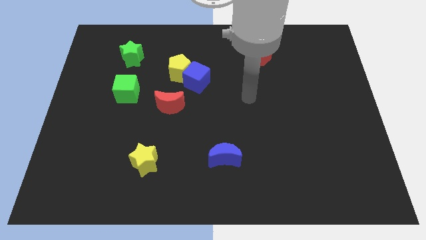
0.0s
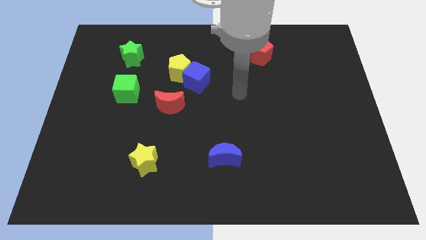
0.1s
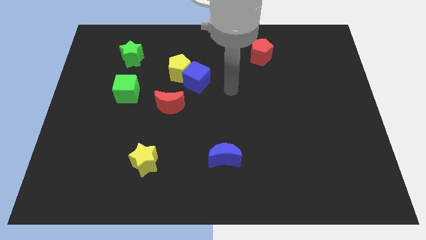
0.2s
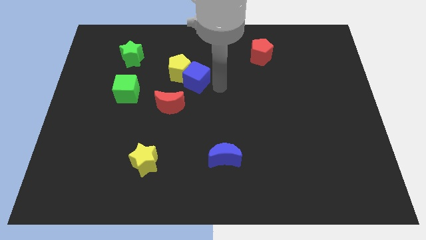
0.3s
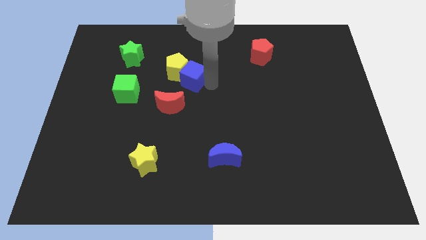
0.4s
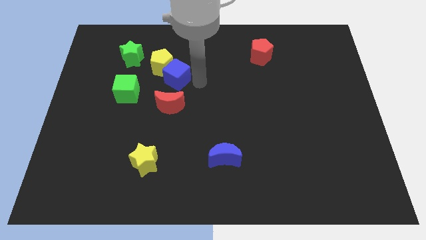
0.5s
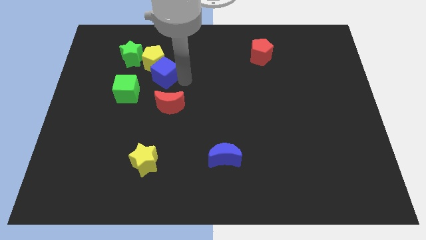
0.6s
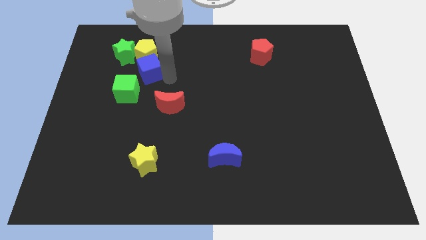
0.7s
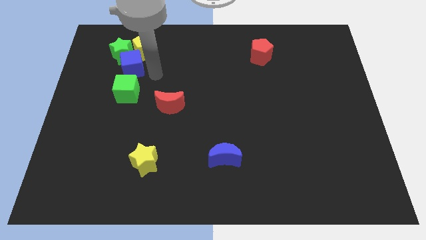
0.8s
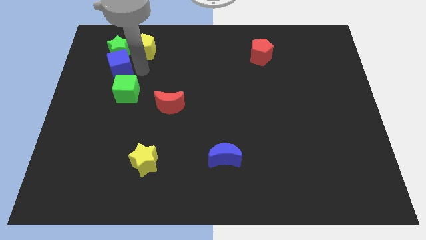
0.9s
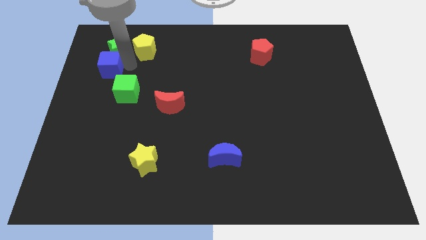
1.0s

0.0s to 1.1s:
separate the yellow pentagon from the blue cube

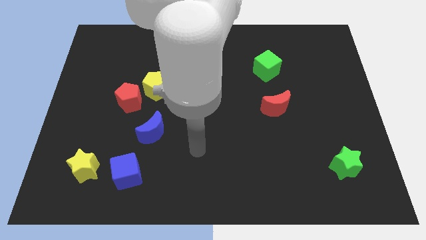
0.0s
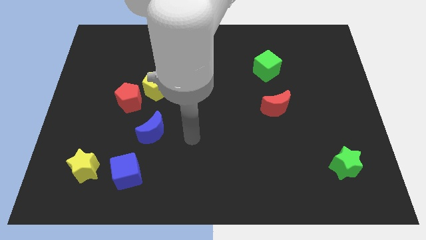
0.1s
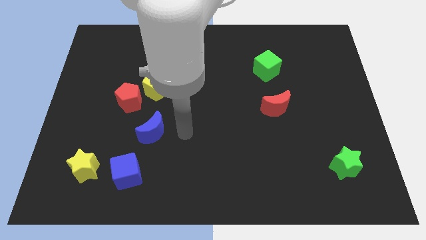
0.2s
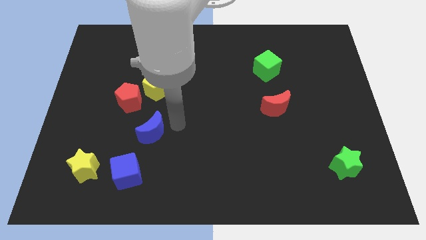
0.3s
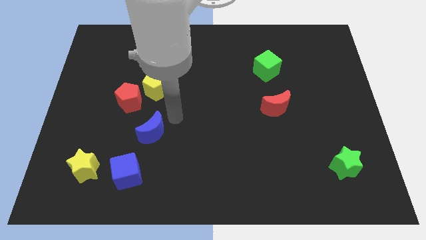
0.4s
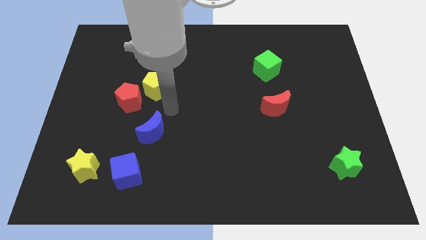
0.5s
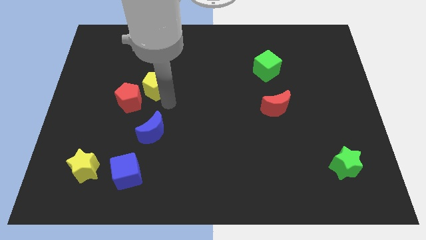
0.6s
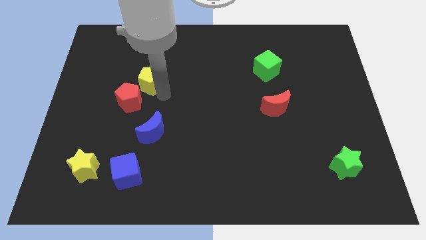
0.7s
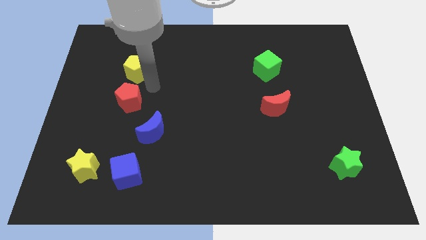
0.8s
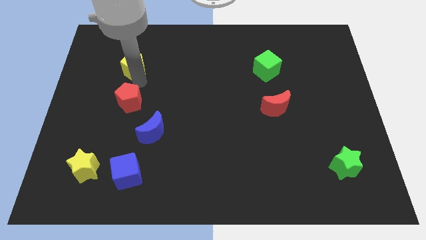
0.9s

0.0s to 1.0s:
move the red pentagon away from the yellow pentagon

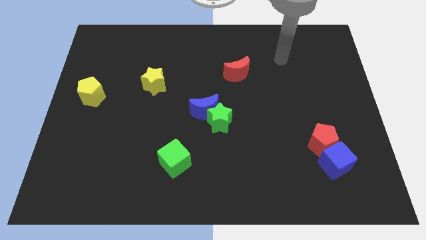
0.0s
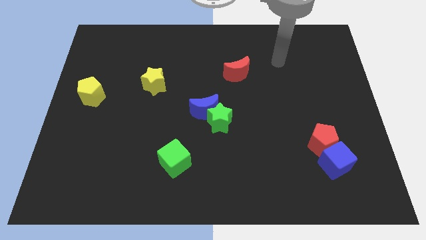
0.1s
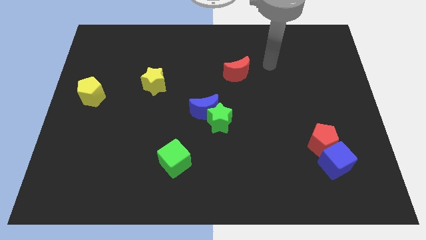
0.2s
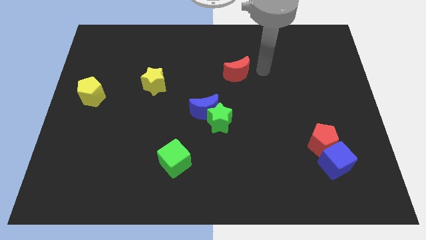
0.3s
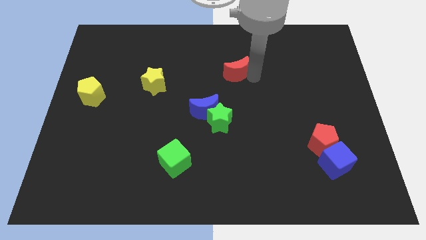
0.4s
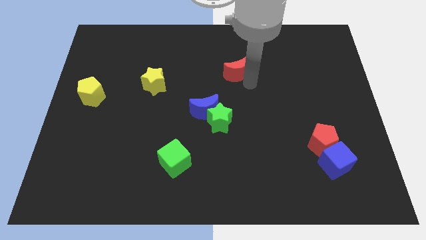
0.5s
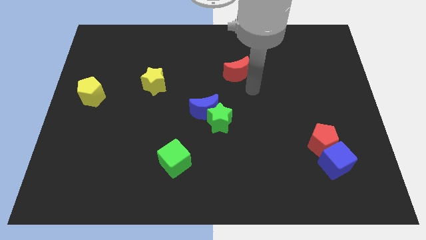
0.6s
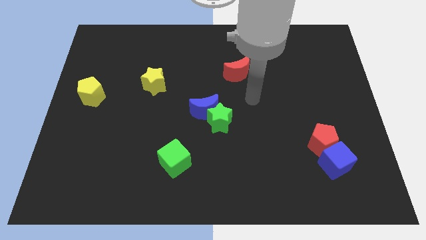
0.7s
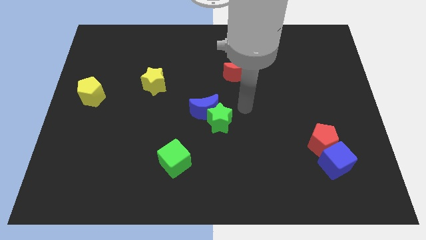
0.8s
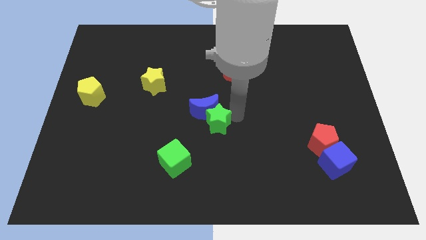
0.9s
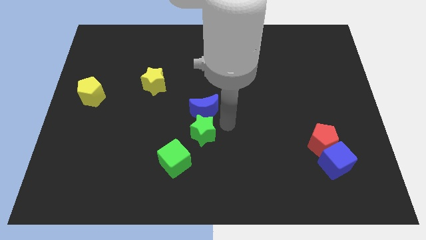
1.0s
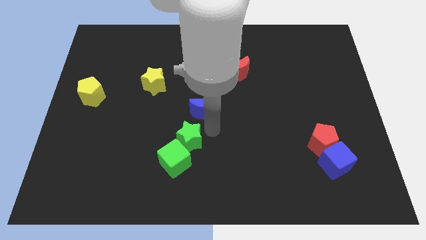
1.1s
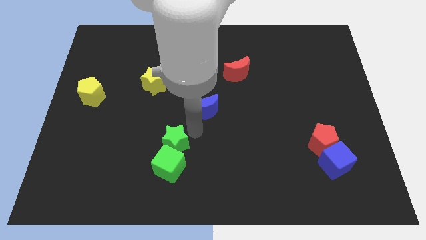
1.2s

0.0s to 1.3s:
pull the blue moon apart from the green star

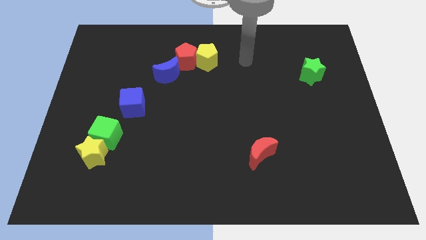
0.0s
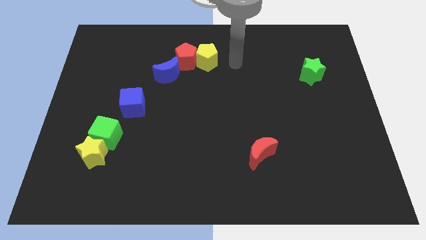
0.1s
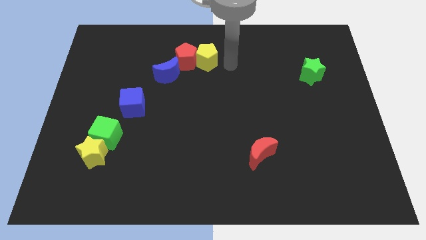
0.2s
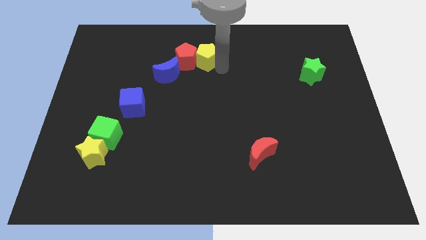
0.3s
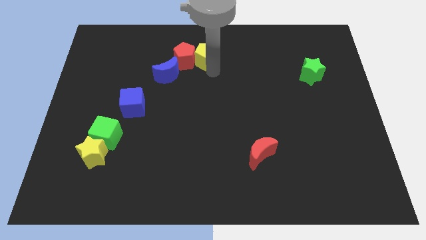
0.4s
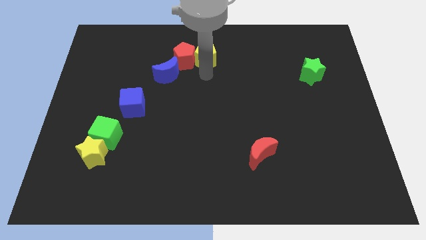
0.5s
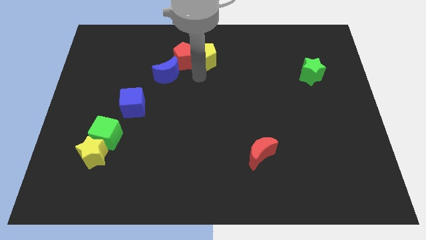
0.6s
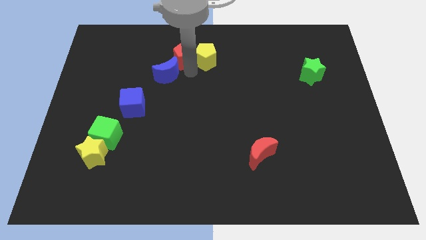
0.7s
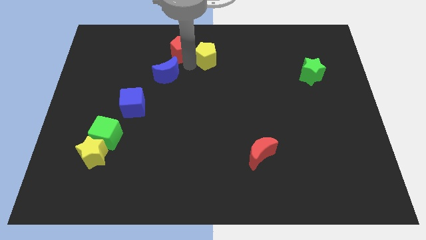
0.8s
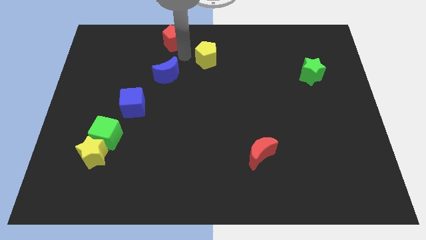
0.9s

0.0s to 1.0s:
move the yellow pentagon away from the red pentagon

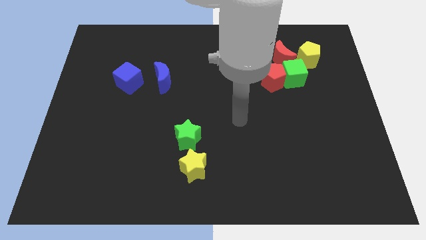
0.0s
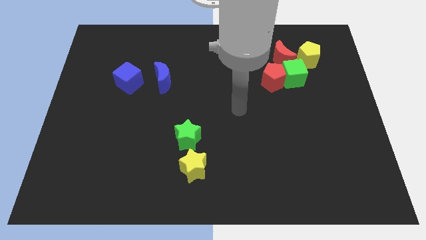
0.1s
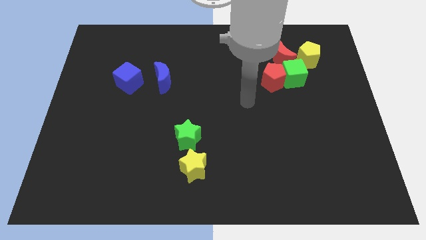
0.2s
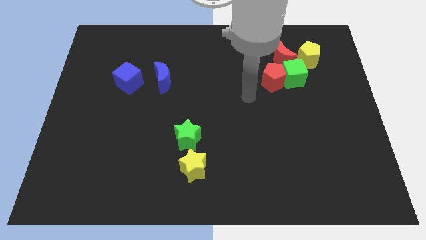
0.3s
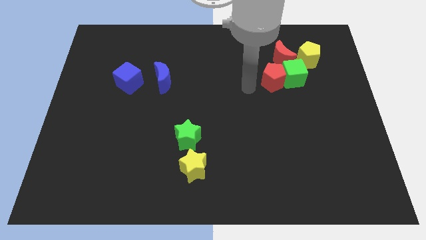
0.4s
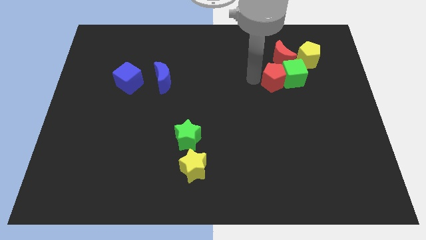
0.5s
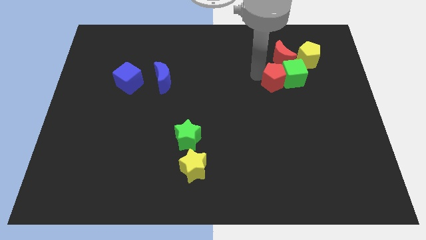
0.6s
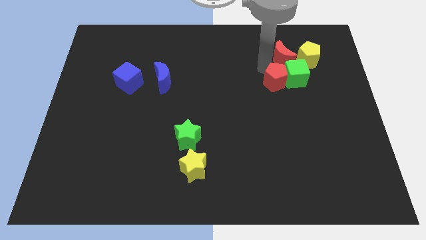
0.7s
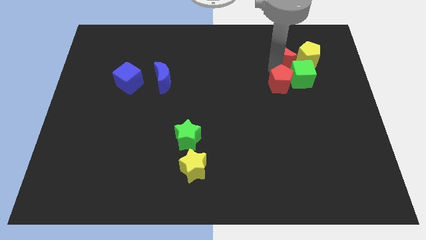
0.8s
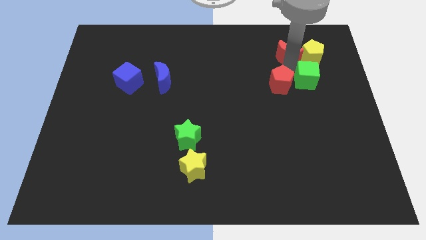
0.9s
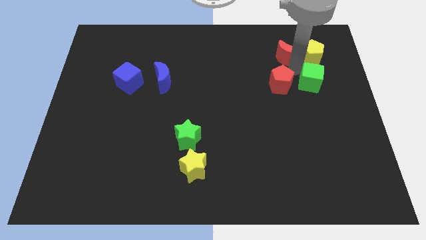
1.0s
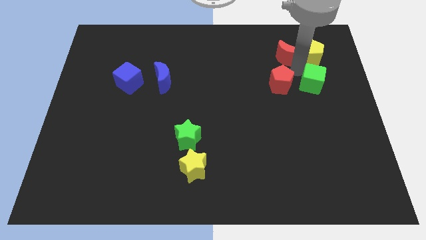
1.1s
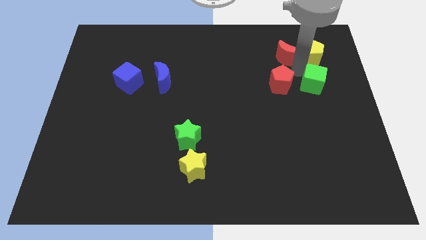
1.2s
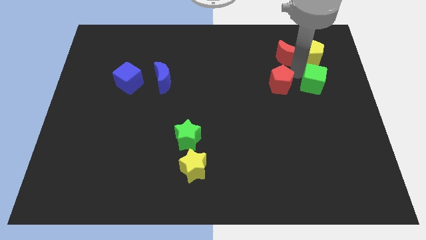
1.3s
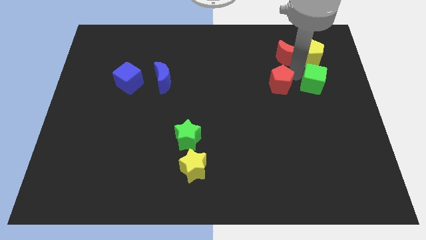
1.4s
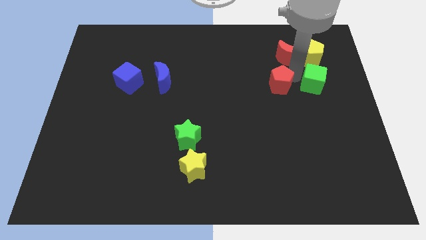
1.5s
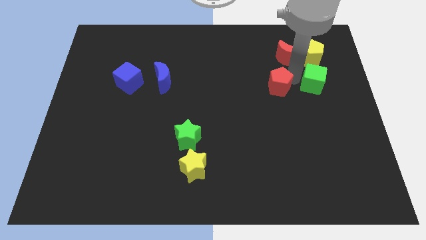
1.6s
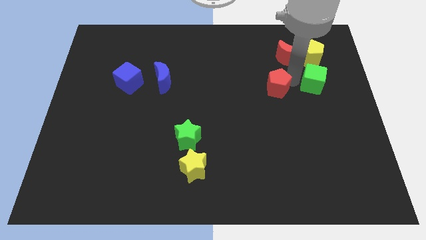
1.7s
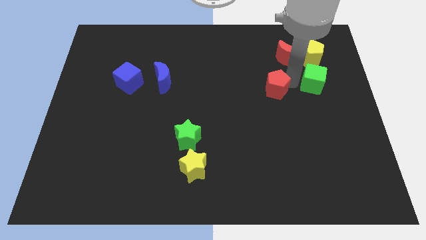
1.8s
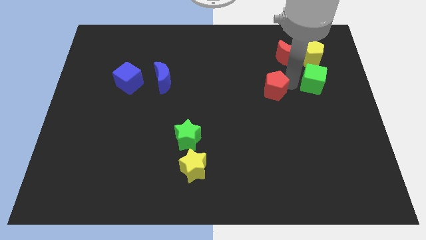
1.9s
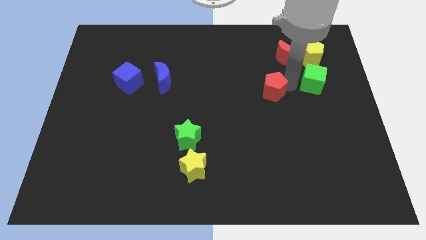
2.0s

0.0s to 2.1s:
move the red pentagon away from the green cube and red moon

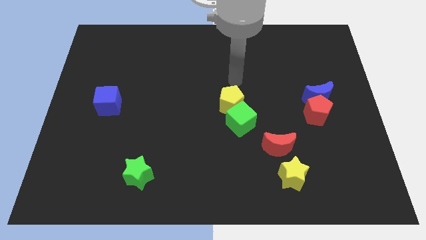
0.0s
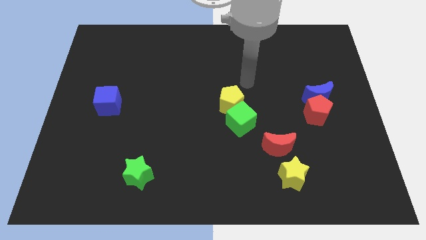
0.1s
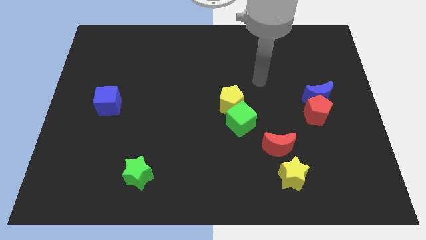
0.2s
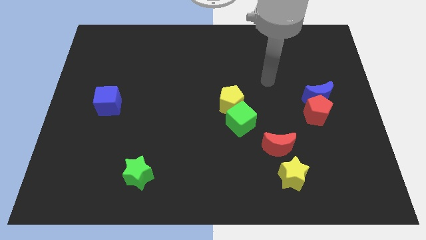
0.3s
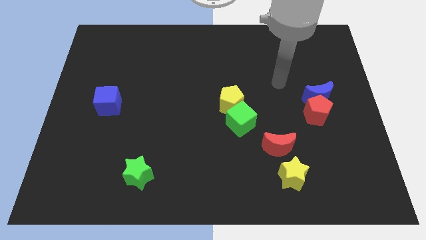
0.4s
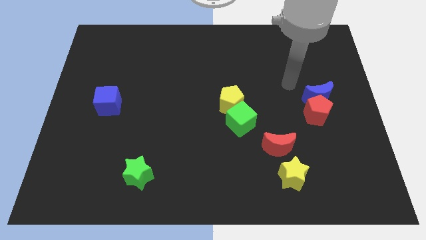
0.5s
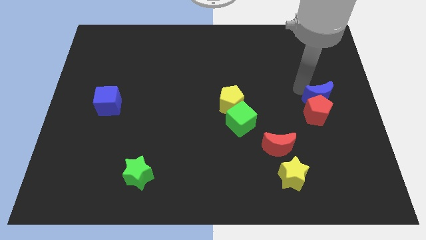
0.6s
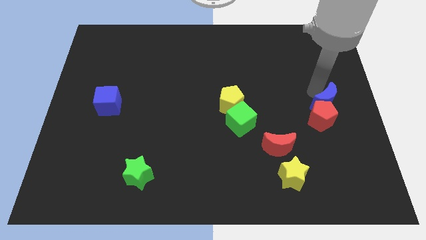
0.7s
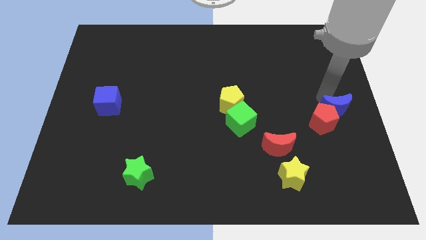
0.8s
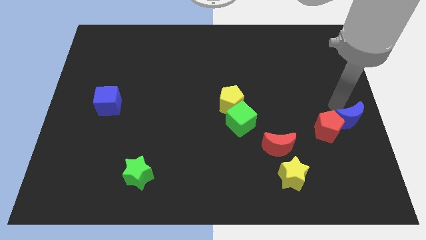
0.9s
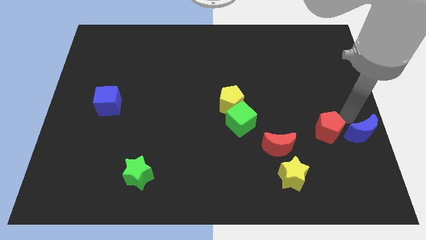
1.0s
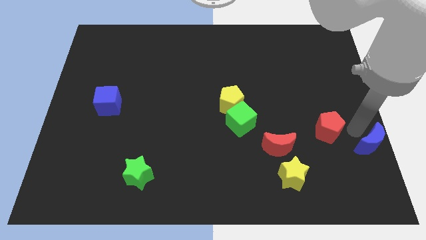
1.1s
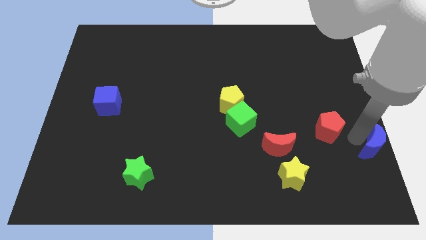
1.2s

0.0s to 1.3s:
move the red pentagon away from the blue moon

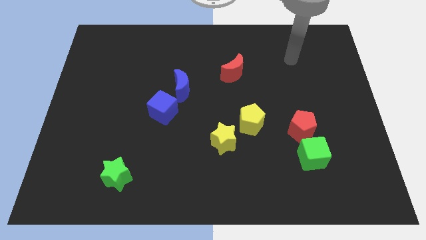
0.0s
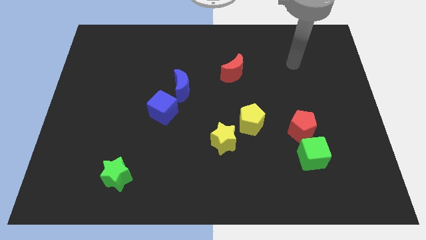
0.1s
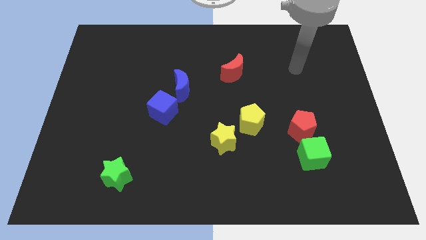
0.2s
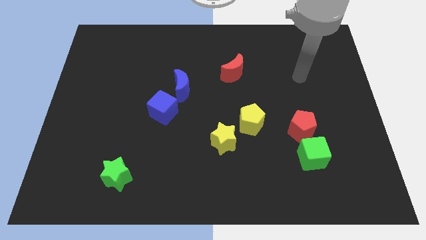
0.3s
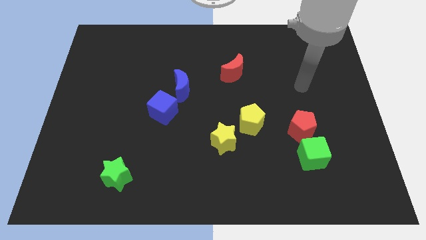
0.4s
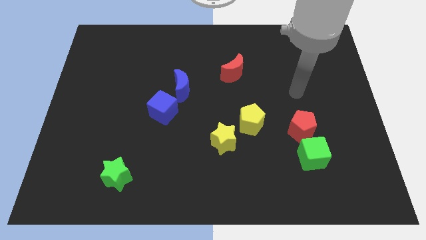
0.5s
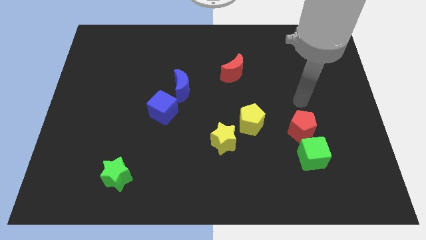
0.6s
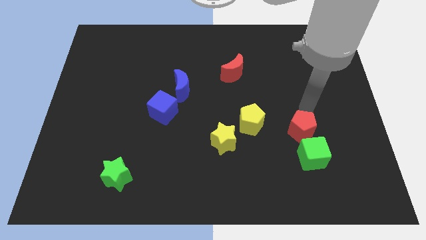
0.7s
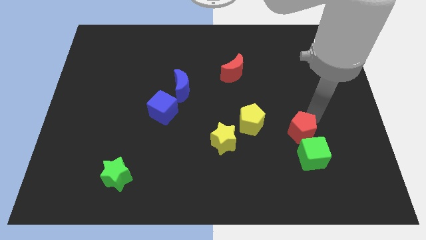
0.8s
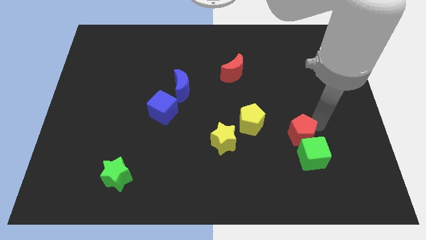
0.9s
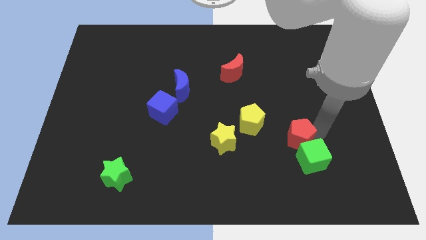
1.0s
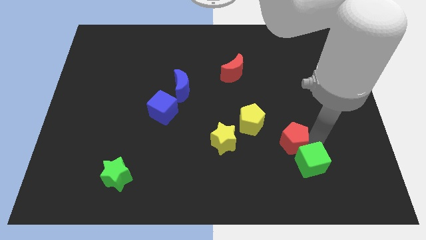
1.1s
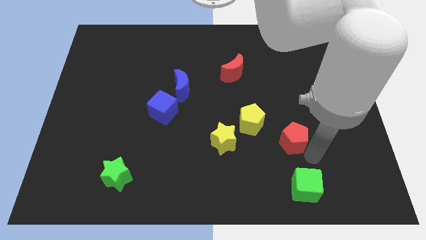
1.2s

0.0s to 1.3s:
separate the red pentagon from the green cube

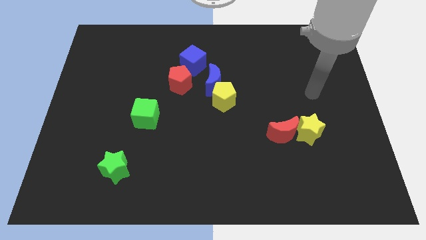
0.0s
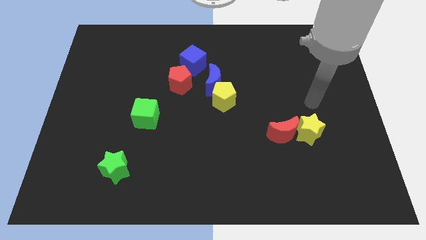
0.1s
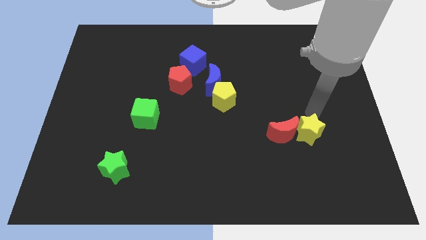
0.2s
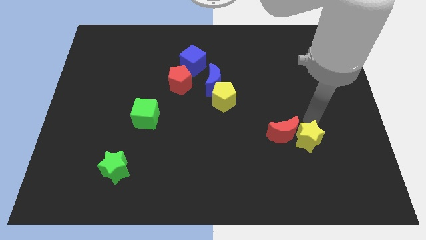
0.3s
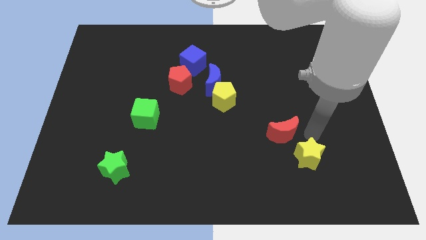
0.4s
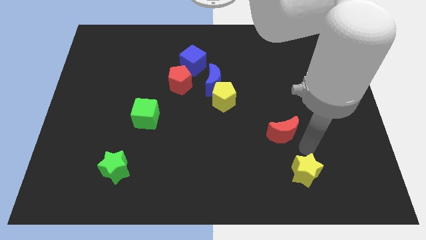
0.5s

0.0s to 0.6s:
pull the red moon apart from the yellow star
